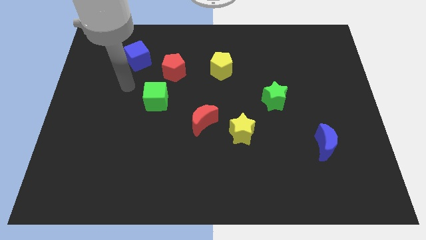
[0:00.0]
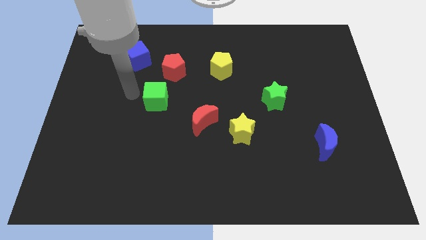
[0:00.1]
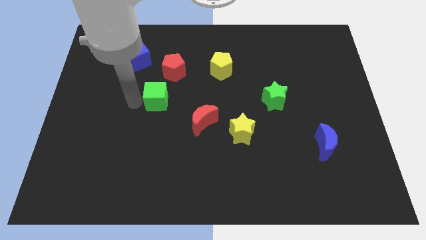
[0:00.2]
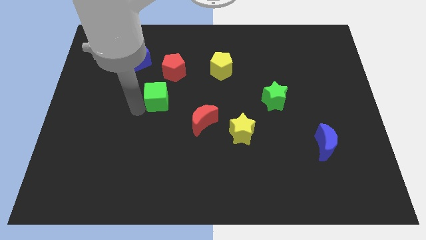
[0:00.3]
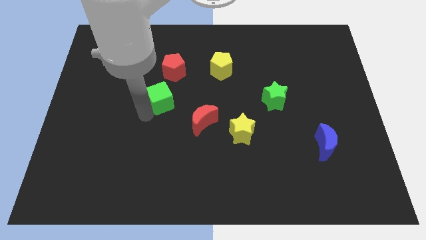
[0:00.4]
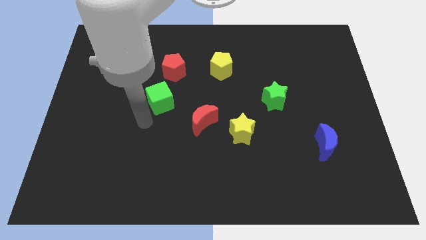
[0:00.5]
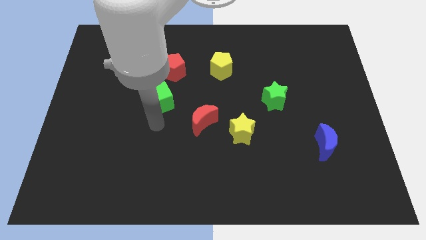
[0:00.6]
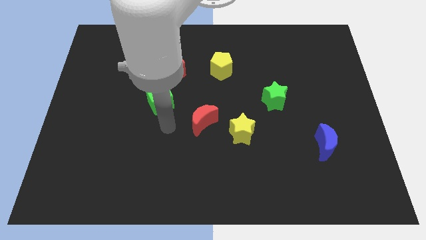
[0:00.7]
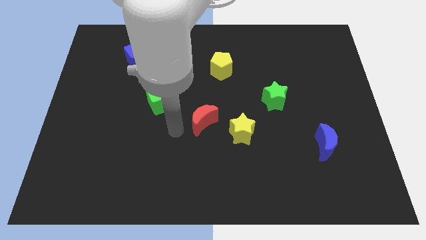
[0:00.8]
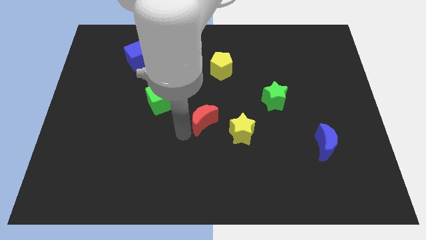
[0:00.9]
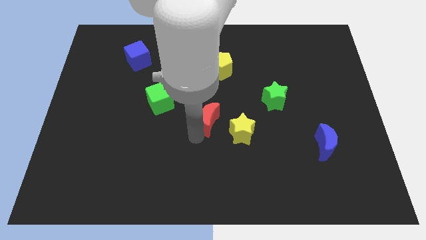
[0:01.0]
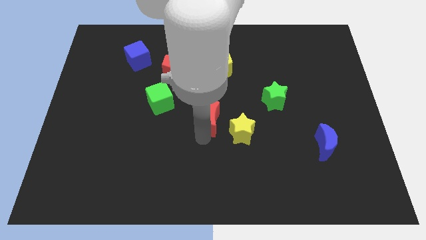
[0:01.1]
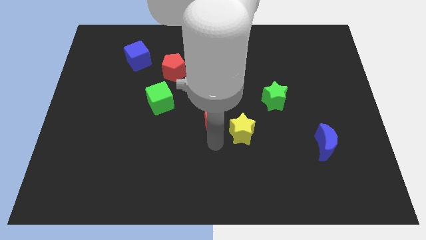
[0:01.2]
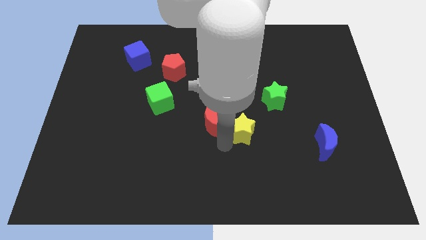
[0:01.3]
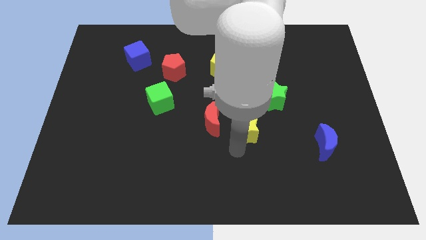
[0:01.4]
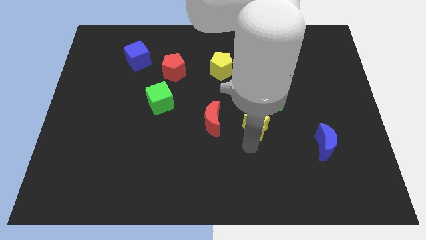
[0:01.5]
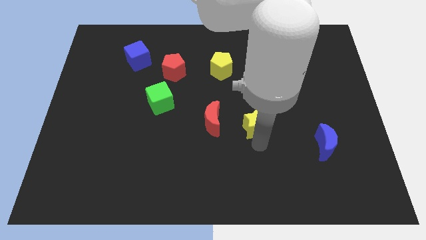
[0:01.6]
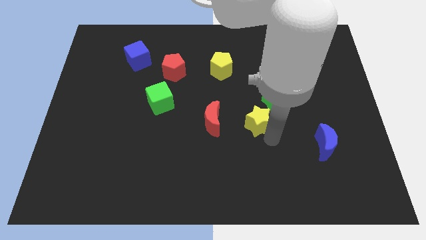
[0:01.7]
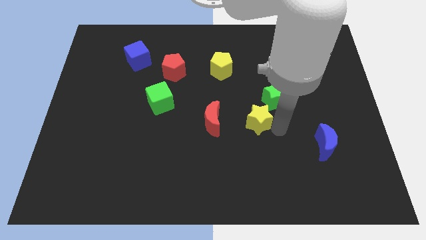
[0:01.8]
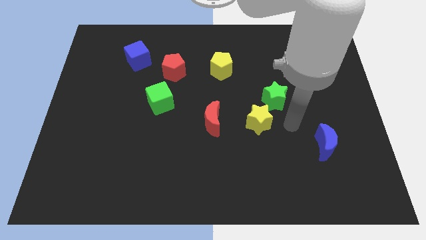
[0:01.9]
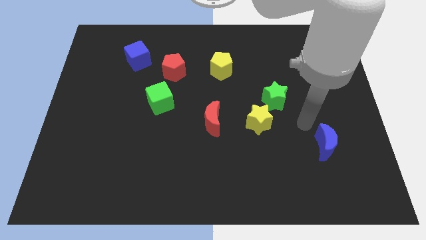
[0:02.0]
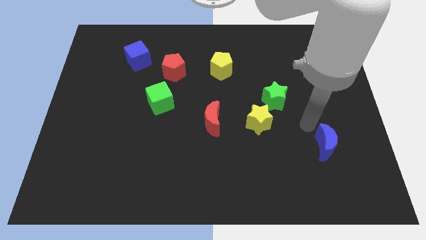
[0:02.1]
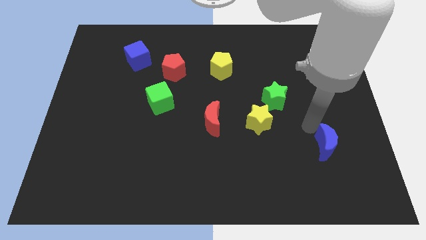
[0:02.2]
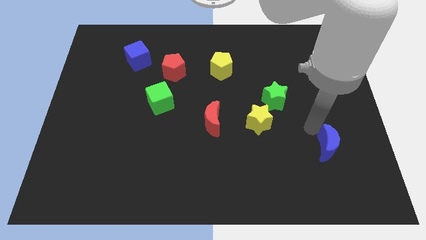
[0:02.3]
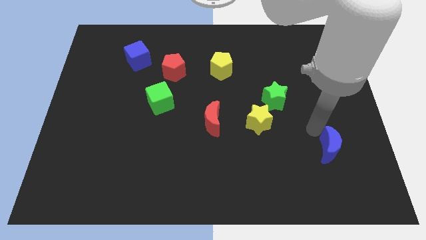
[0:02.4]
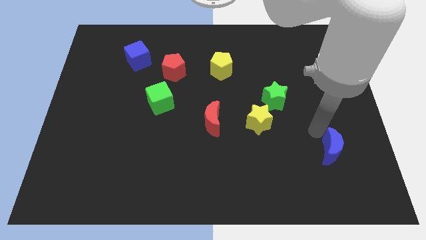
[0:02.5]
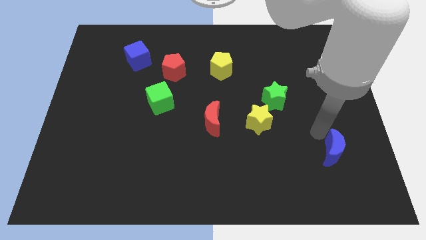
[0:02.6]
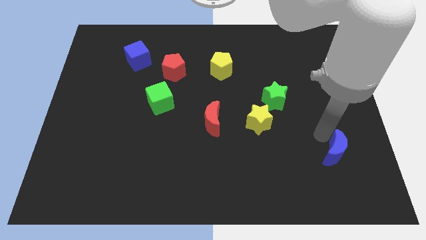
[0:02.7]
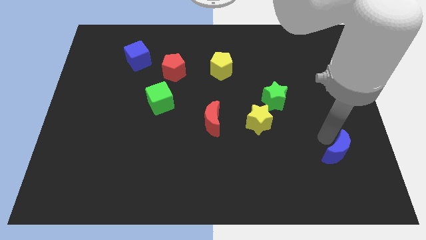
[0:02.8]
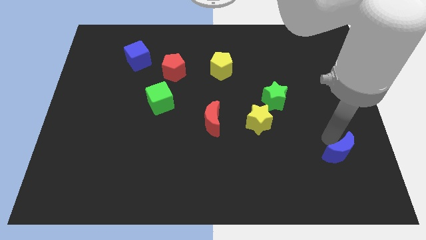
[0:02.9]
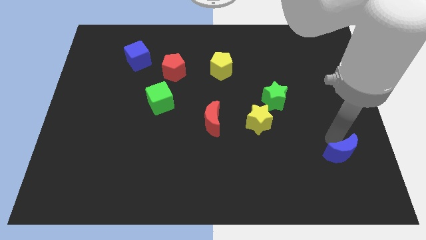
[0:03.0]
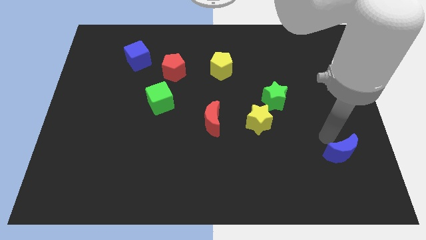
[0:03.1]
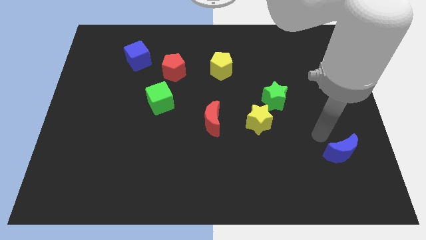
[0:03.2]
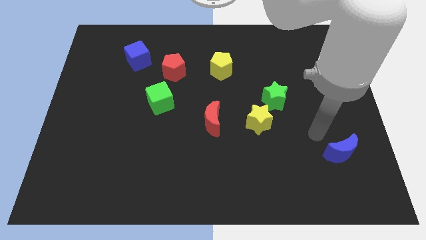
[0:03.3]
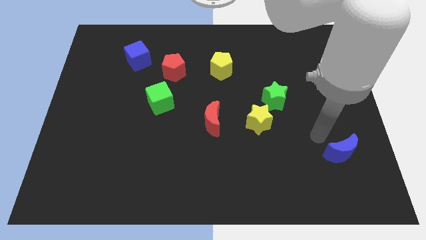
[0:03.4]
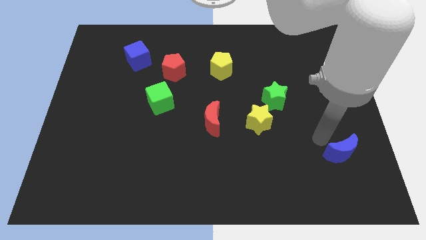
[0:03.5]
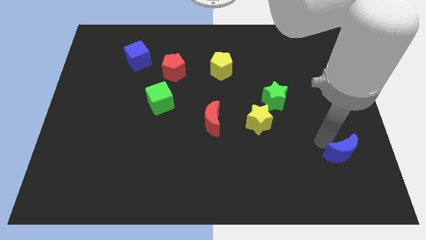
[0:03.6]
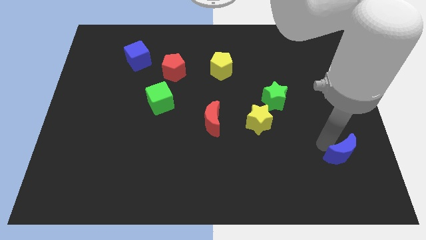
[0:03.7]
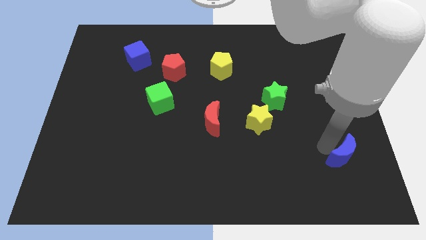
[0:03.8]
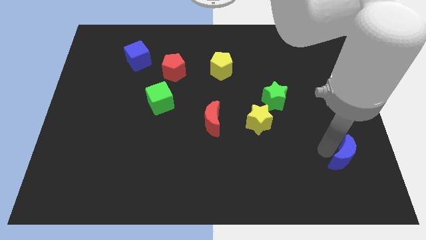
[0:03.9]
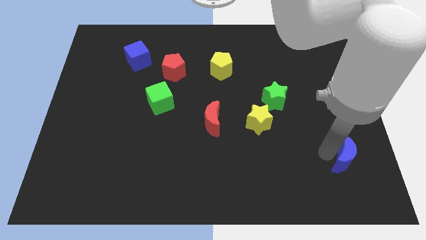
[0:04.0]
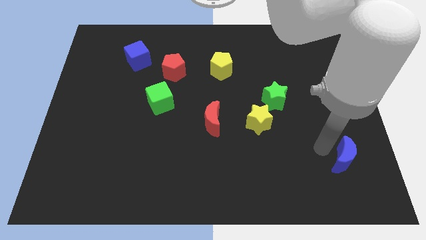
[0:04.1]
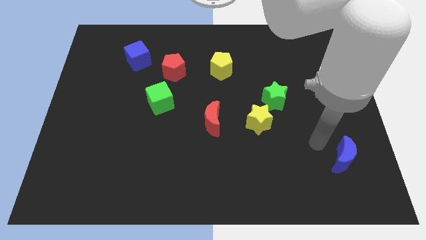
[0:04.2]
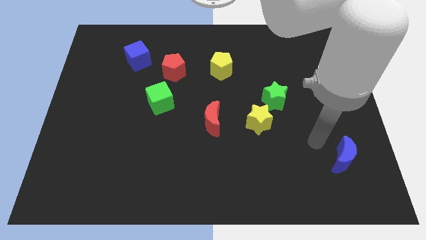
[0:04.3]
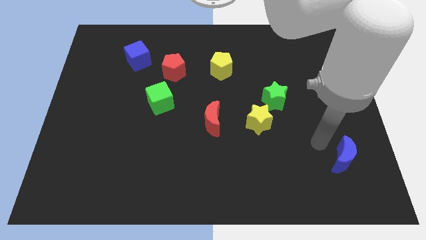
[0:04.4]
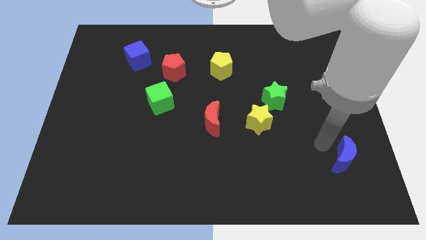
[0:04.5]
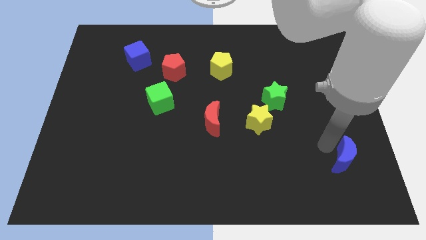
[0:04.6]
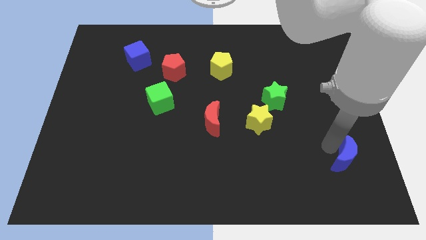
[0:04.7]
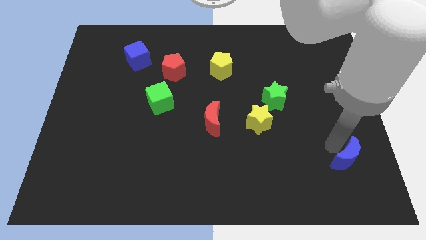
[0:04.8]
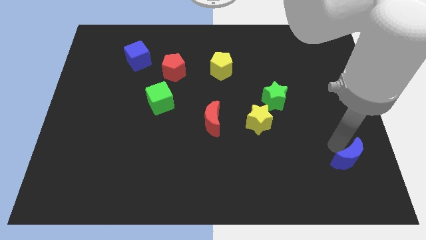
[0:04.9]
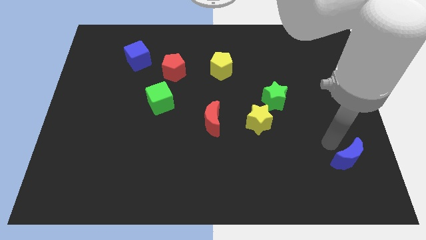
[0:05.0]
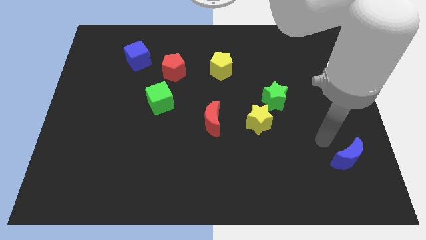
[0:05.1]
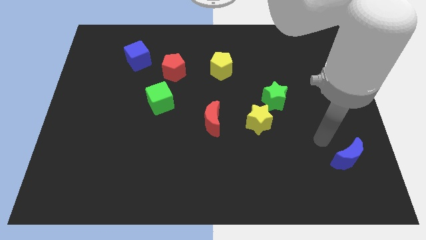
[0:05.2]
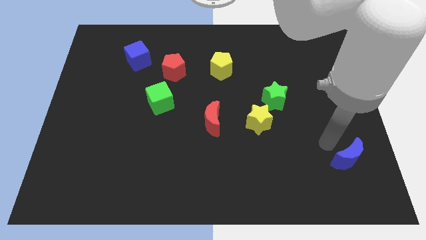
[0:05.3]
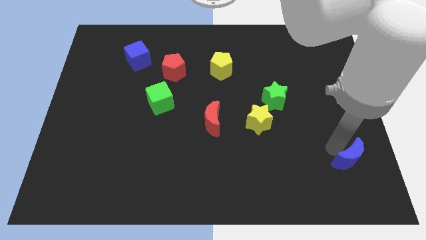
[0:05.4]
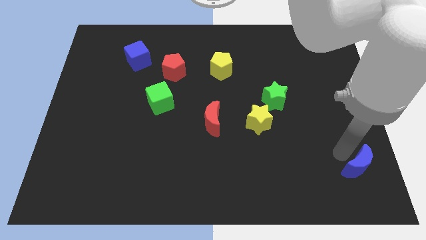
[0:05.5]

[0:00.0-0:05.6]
push the blue moon to the bottom right corner
